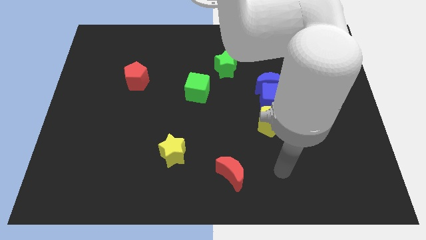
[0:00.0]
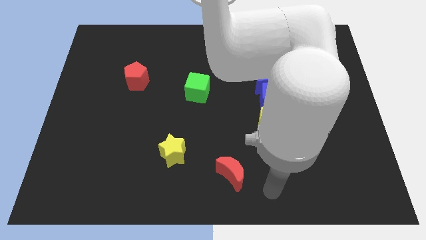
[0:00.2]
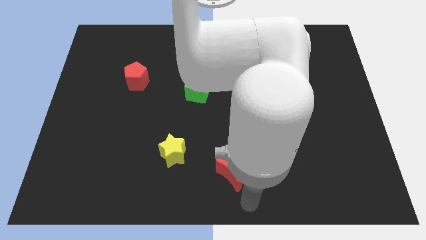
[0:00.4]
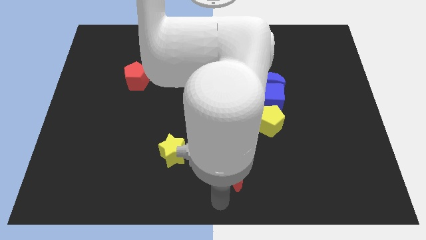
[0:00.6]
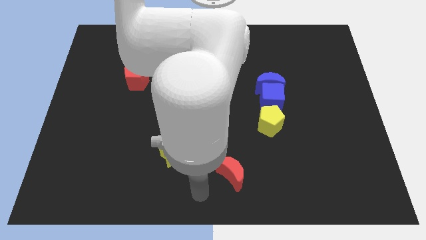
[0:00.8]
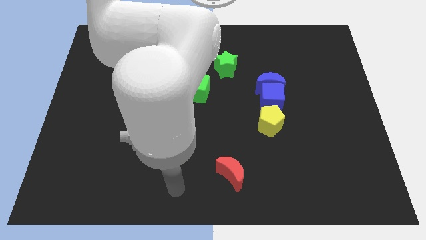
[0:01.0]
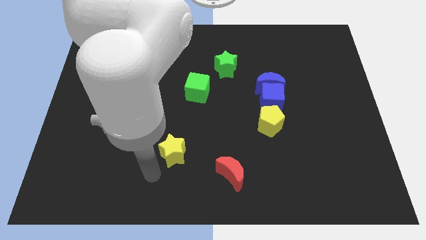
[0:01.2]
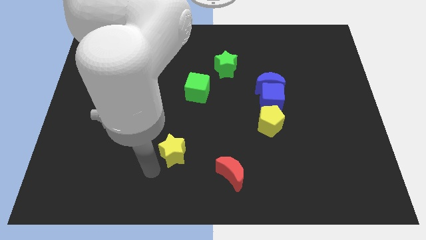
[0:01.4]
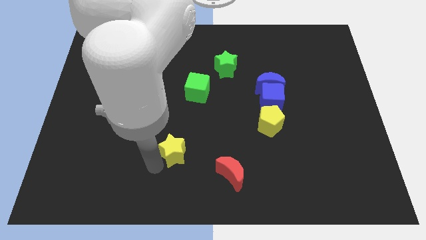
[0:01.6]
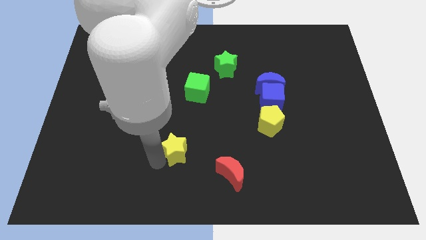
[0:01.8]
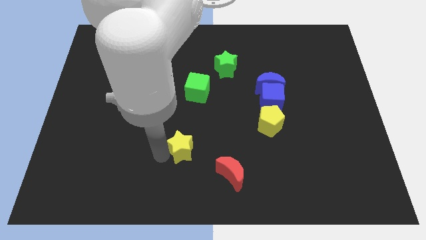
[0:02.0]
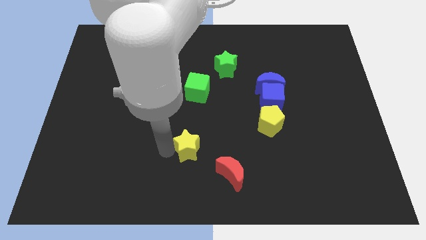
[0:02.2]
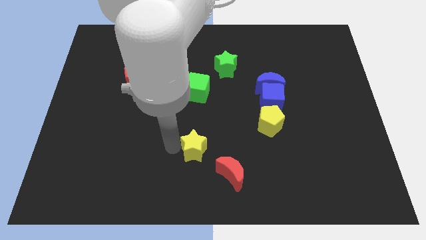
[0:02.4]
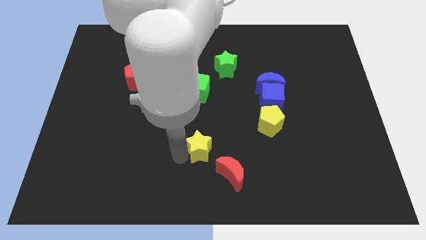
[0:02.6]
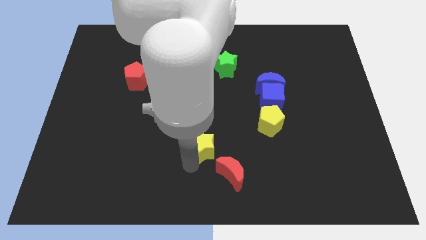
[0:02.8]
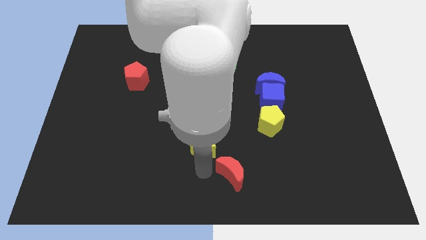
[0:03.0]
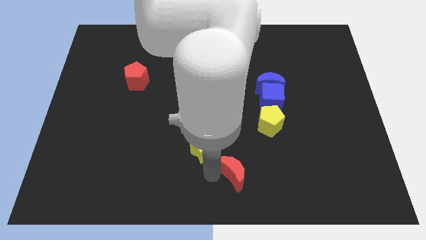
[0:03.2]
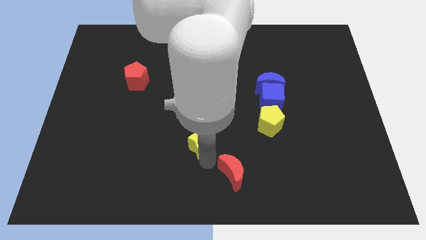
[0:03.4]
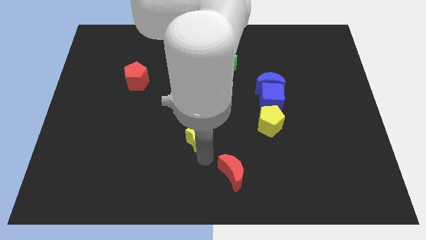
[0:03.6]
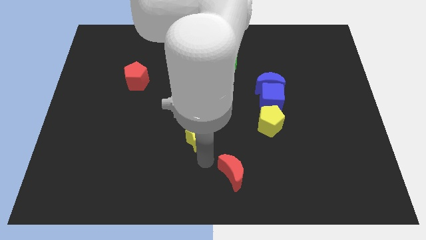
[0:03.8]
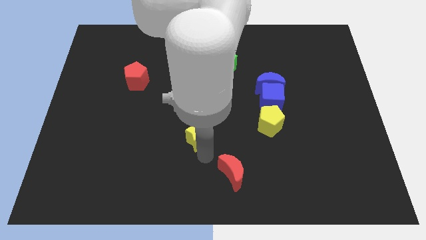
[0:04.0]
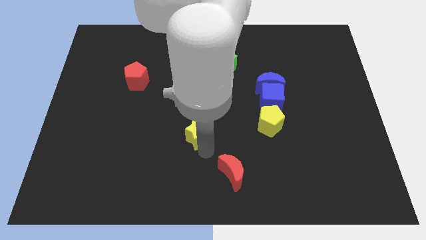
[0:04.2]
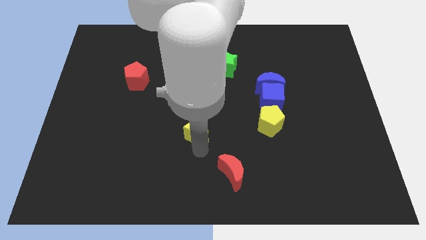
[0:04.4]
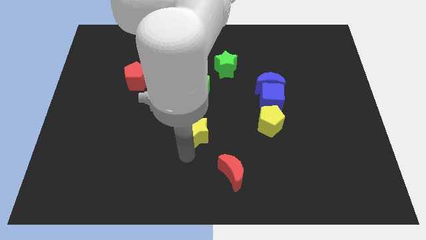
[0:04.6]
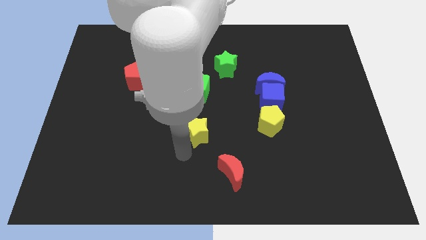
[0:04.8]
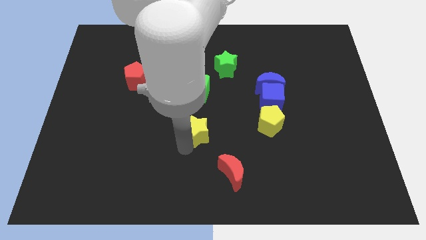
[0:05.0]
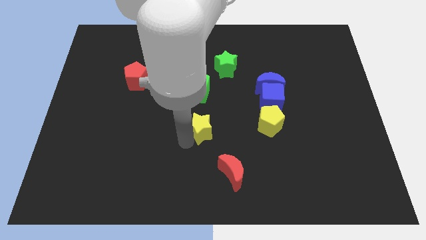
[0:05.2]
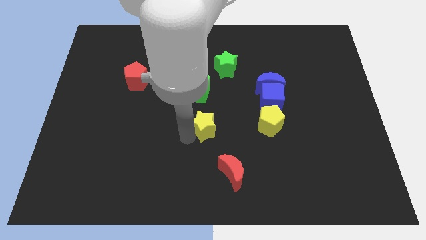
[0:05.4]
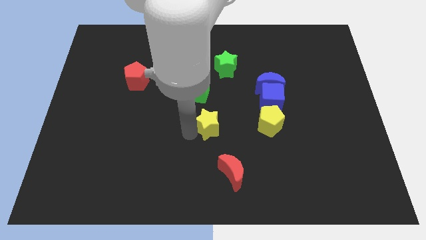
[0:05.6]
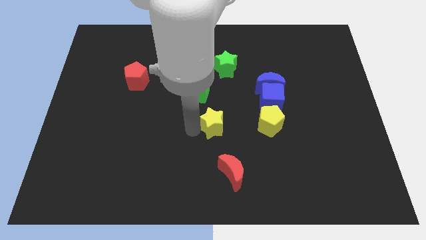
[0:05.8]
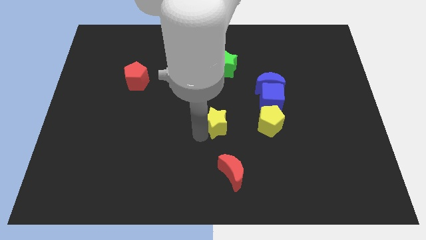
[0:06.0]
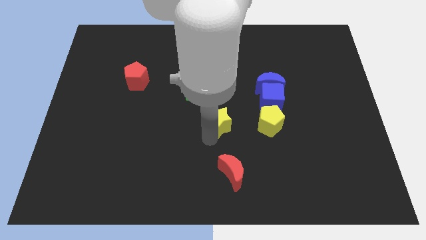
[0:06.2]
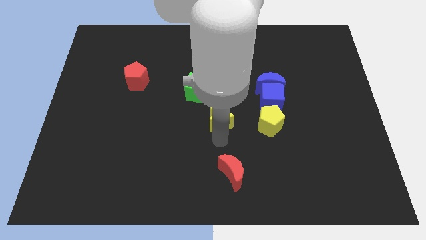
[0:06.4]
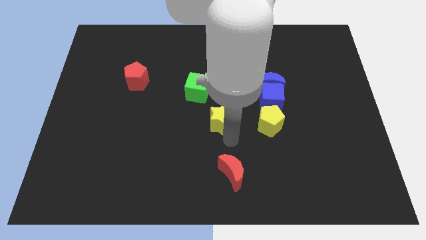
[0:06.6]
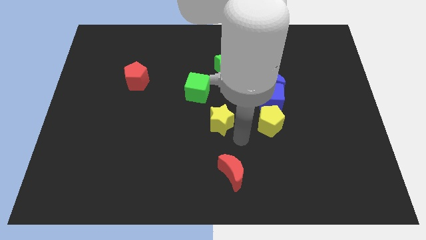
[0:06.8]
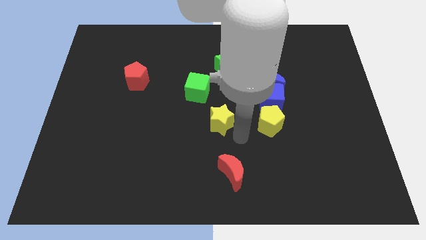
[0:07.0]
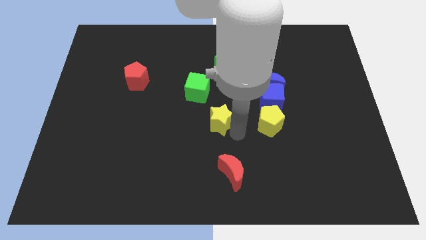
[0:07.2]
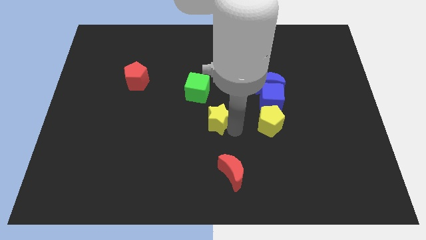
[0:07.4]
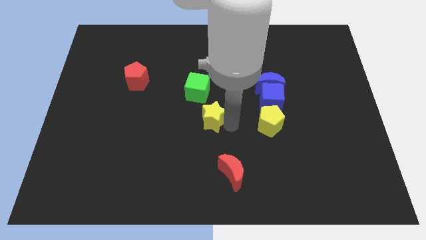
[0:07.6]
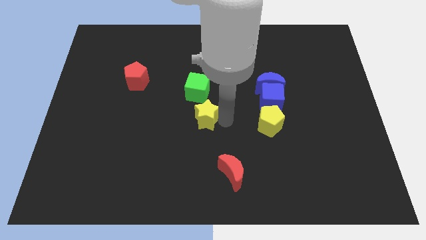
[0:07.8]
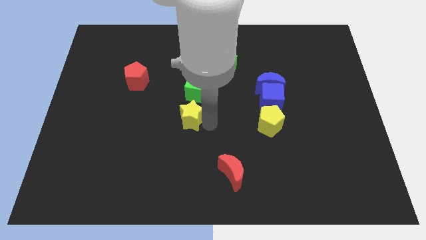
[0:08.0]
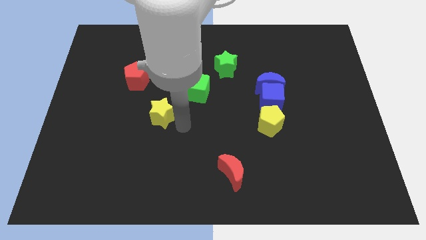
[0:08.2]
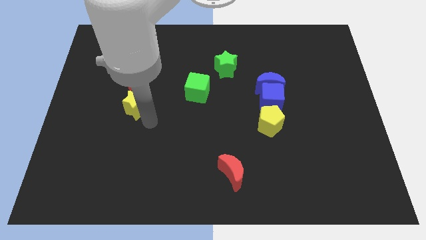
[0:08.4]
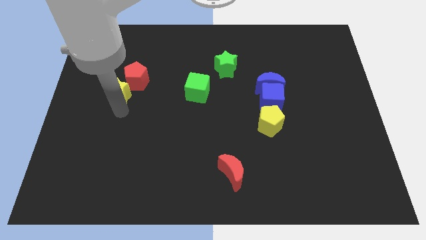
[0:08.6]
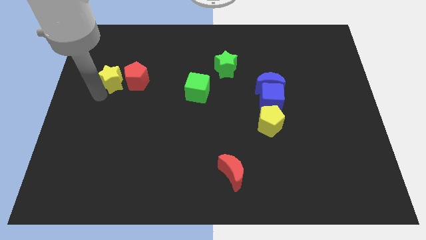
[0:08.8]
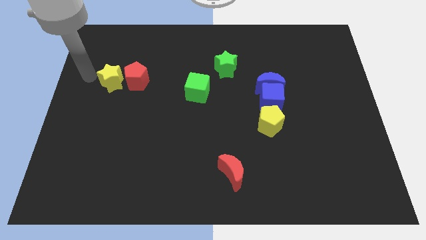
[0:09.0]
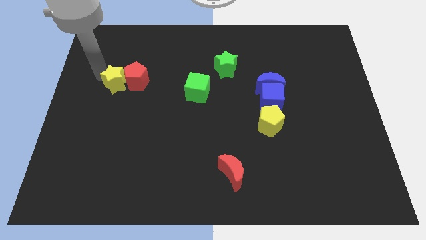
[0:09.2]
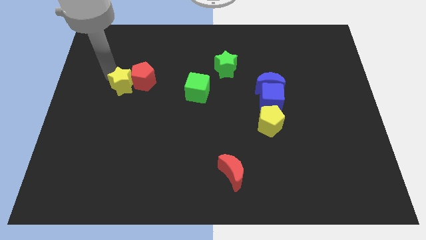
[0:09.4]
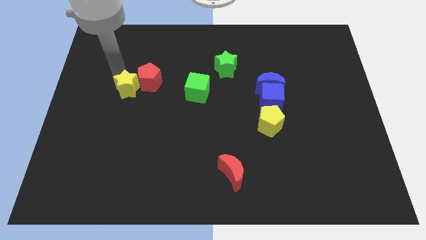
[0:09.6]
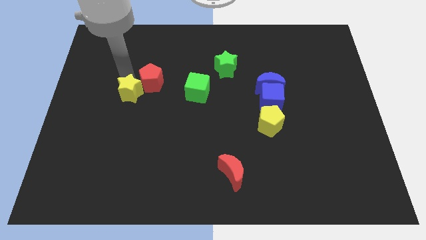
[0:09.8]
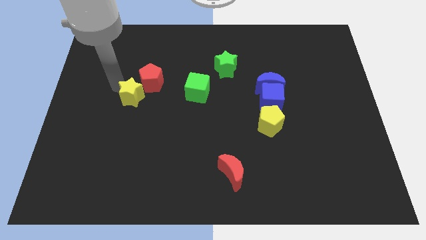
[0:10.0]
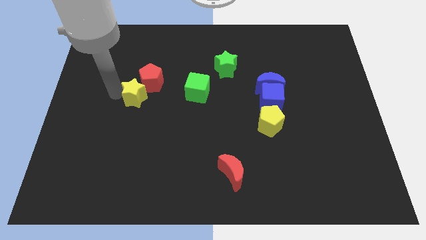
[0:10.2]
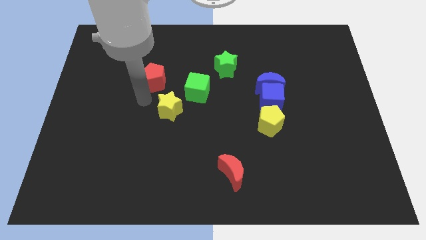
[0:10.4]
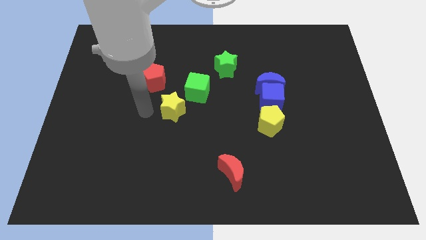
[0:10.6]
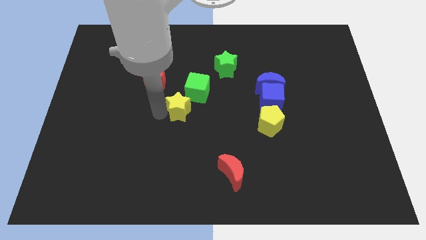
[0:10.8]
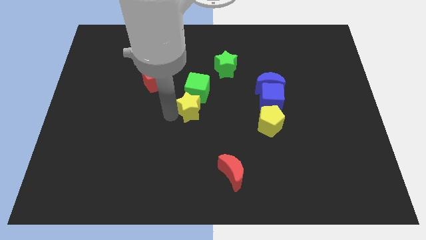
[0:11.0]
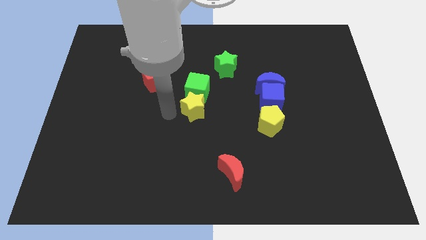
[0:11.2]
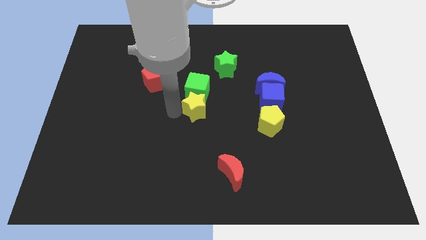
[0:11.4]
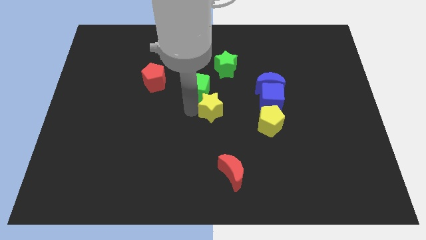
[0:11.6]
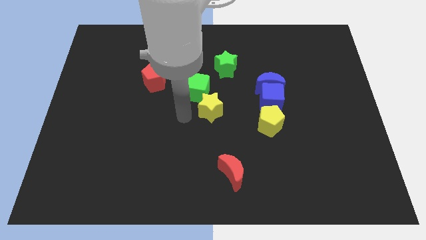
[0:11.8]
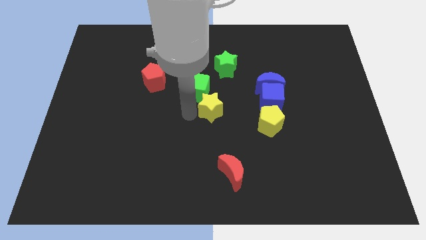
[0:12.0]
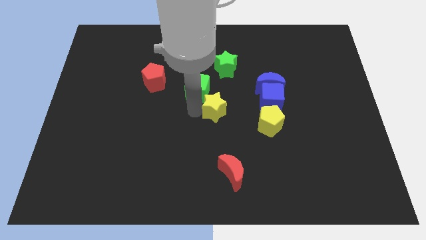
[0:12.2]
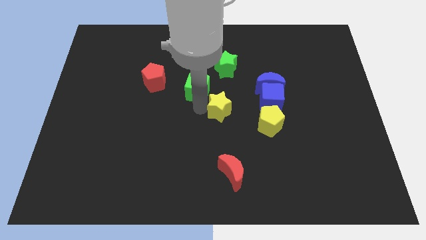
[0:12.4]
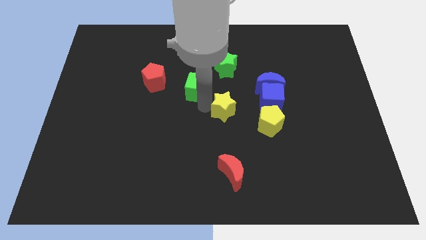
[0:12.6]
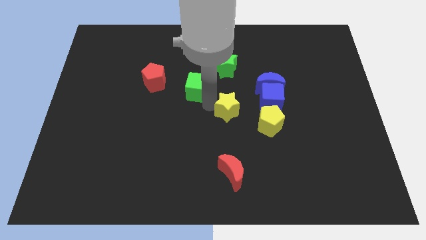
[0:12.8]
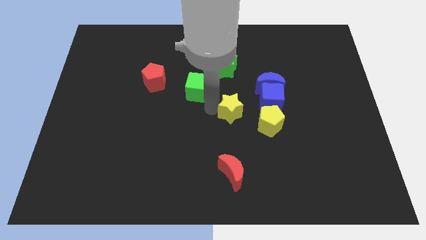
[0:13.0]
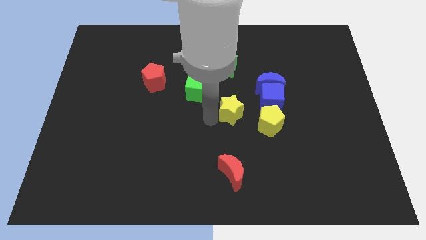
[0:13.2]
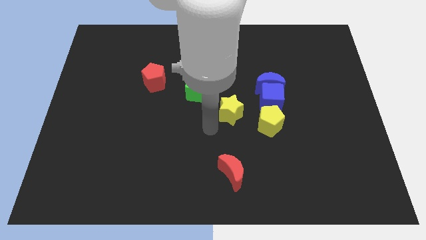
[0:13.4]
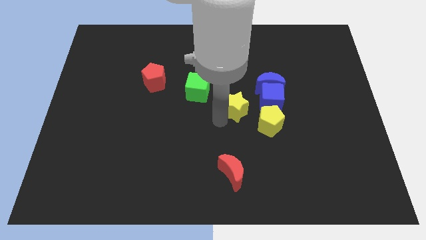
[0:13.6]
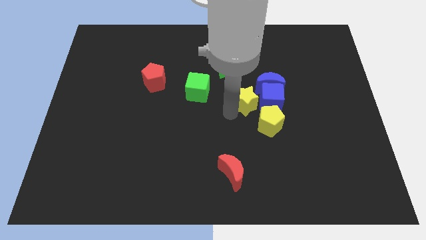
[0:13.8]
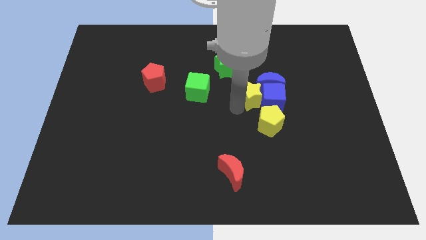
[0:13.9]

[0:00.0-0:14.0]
push the yellow star next to the blue moon

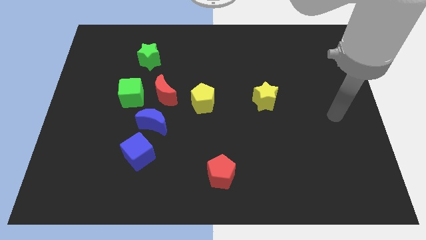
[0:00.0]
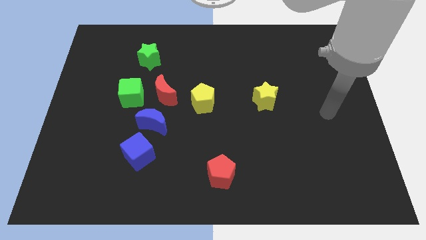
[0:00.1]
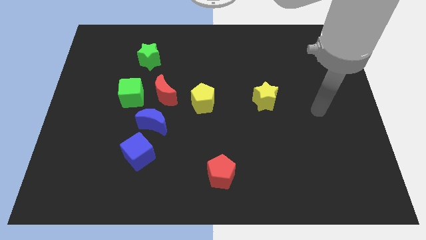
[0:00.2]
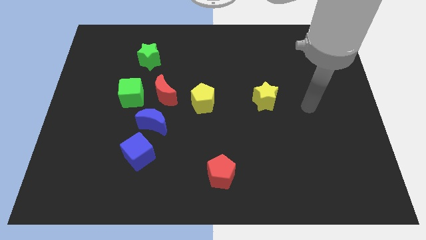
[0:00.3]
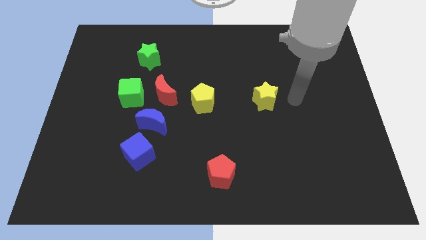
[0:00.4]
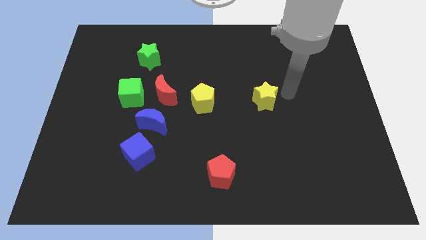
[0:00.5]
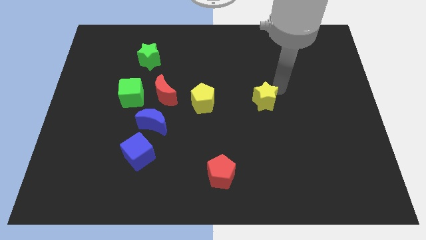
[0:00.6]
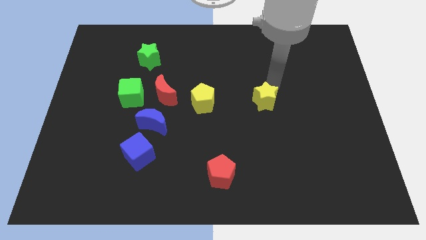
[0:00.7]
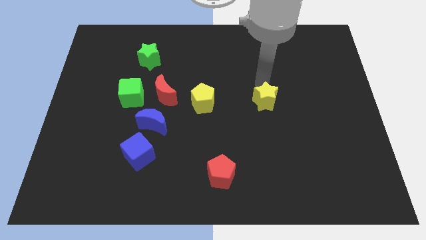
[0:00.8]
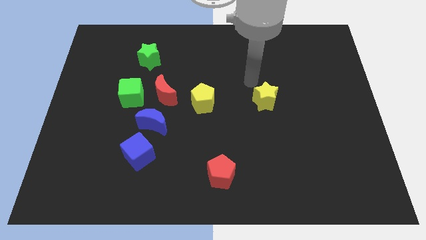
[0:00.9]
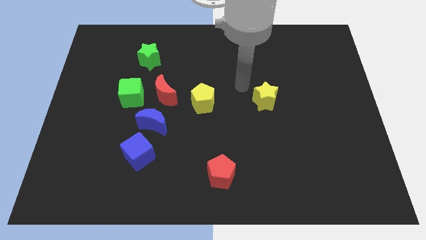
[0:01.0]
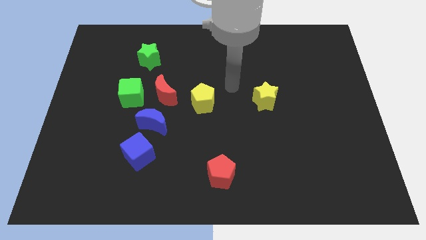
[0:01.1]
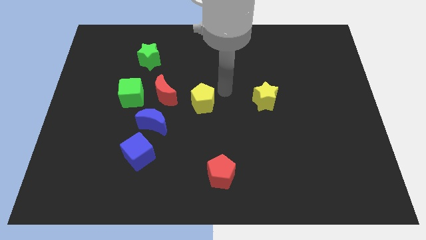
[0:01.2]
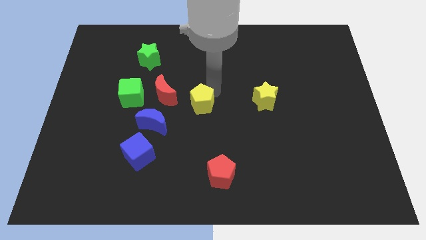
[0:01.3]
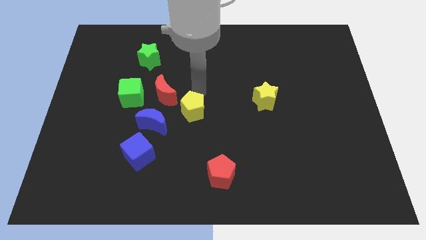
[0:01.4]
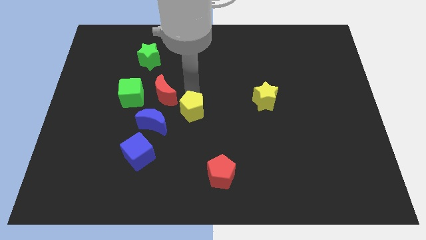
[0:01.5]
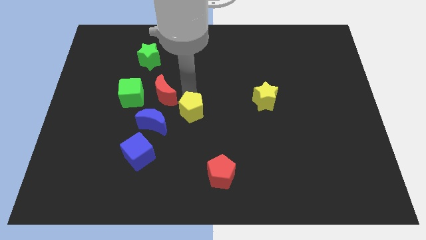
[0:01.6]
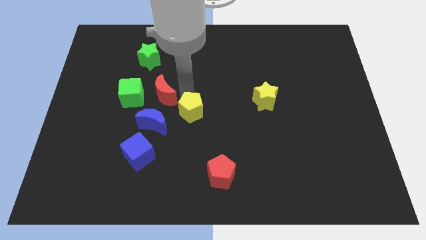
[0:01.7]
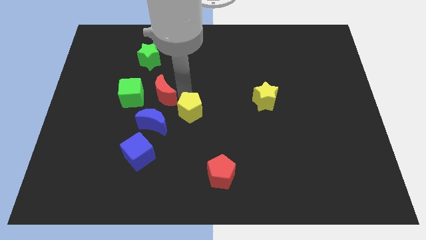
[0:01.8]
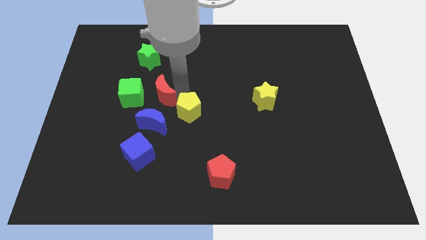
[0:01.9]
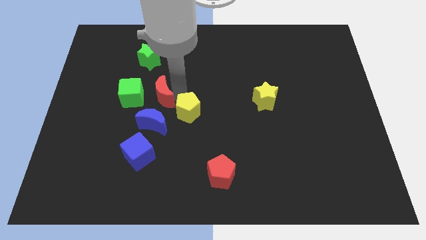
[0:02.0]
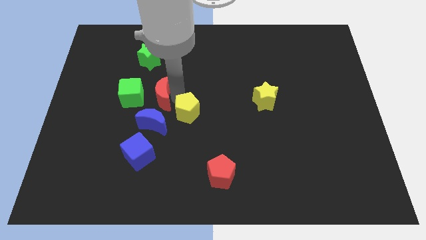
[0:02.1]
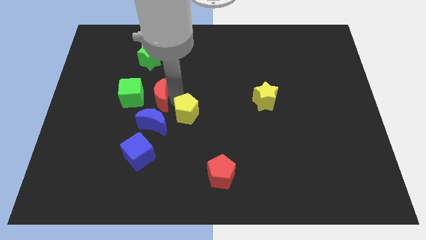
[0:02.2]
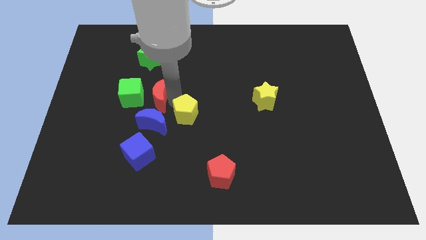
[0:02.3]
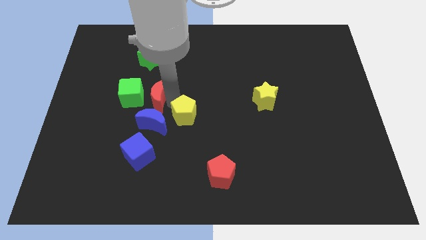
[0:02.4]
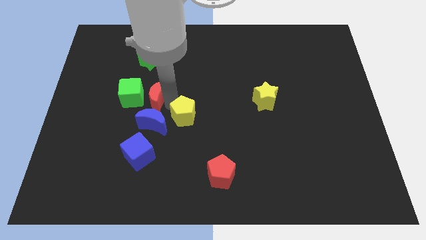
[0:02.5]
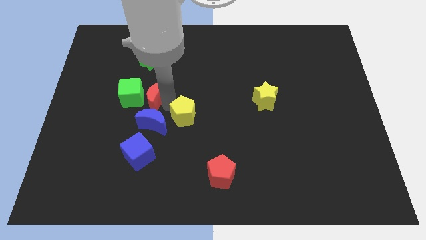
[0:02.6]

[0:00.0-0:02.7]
move the red moon towards the green cube
